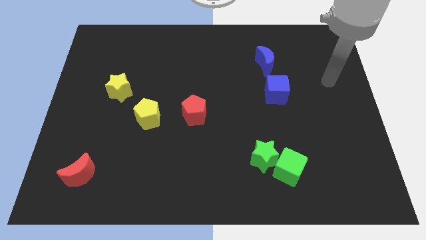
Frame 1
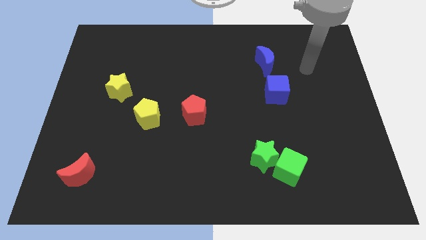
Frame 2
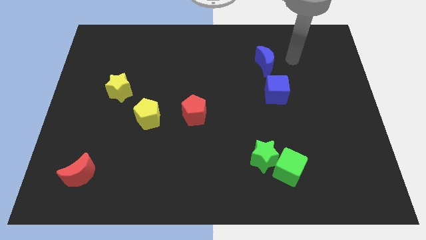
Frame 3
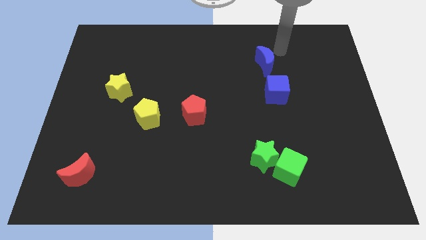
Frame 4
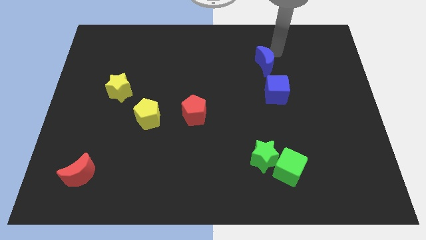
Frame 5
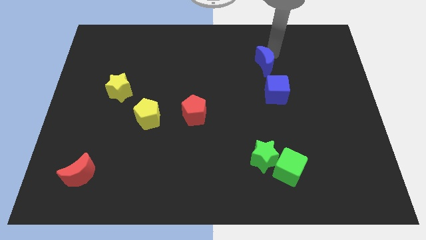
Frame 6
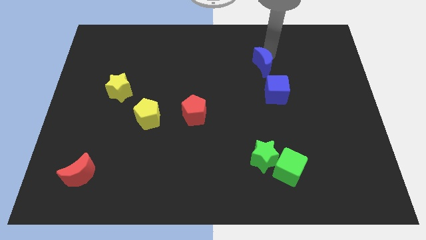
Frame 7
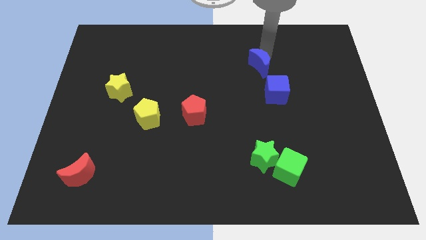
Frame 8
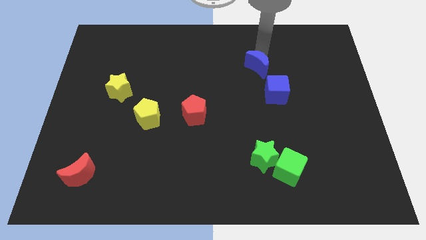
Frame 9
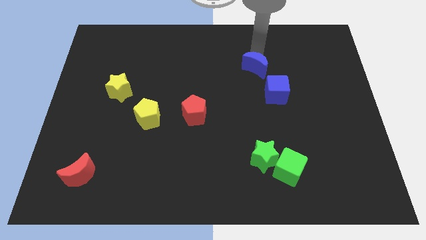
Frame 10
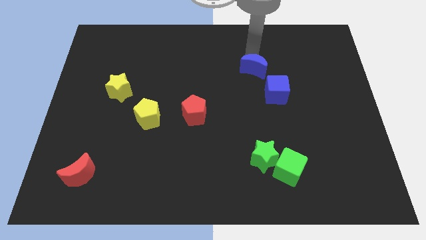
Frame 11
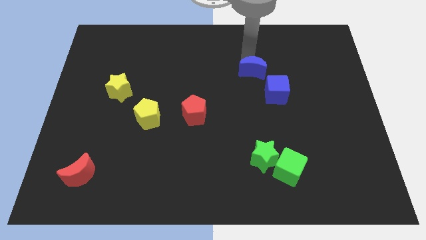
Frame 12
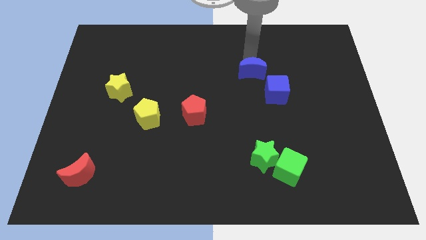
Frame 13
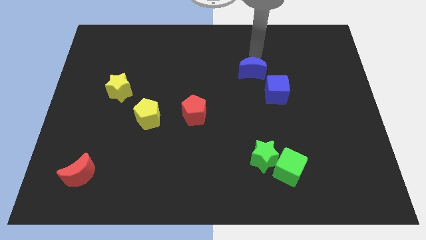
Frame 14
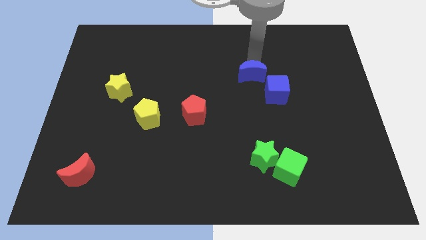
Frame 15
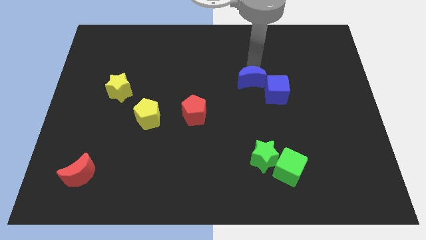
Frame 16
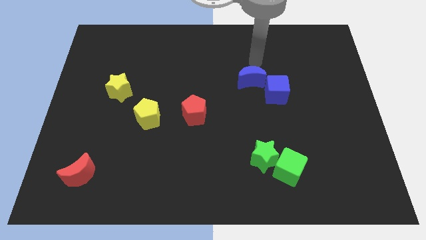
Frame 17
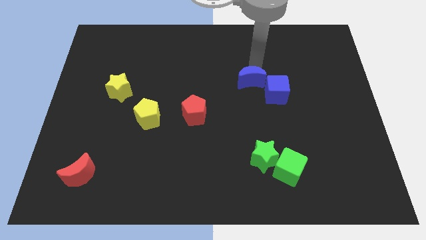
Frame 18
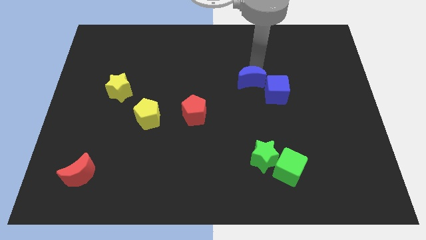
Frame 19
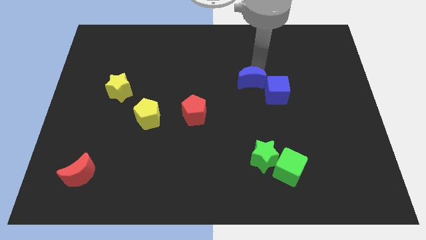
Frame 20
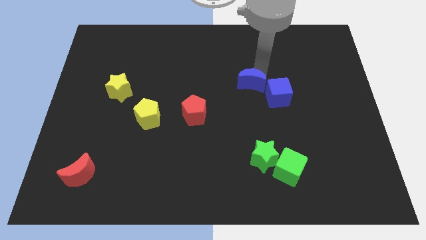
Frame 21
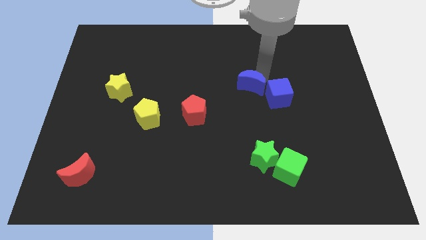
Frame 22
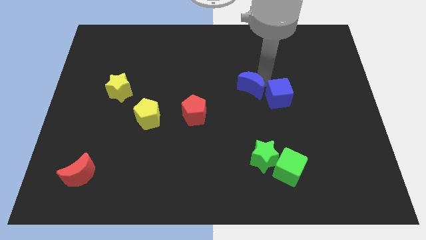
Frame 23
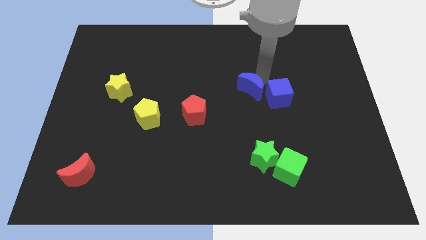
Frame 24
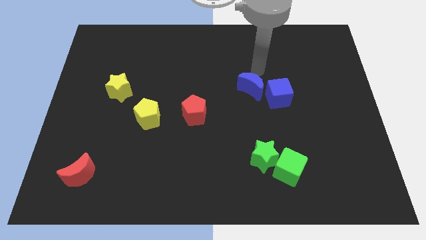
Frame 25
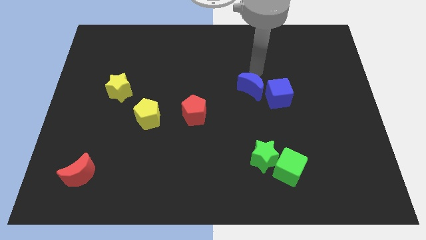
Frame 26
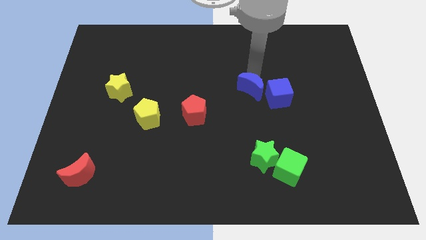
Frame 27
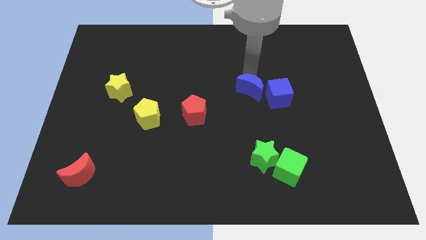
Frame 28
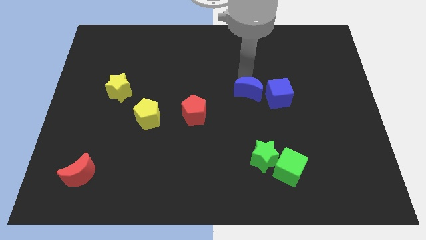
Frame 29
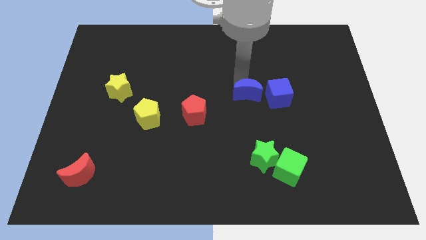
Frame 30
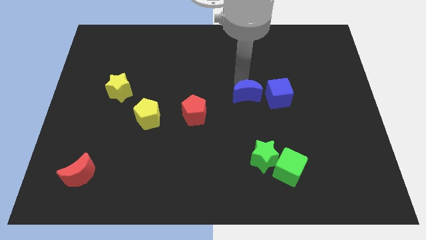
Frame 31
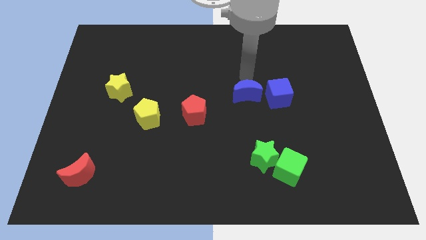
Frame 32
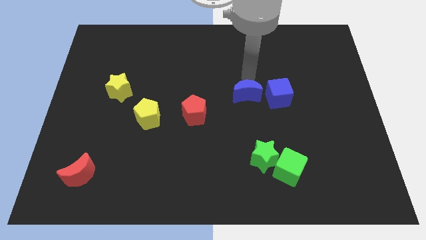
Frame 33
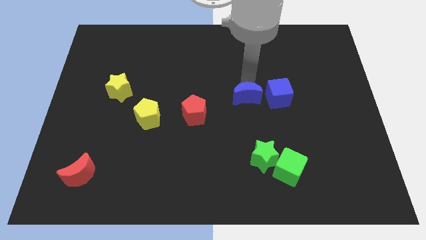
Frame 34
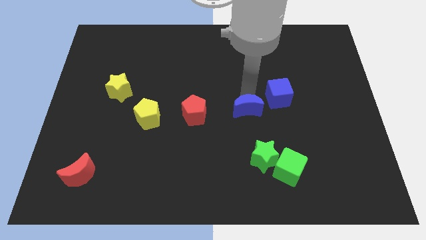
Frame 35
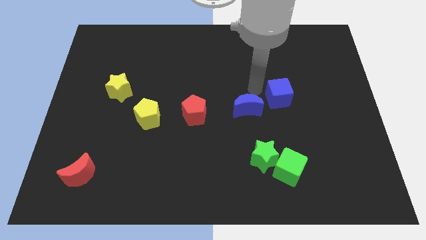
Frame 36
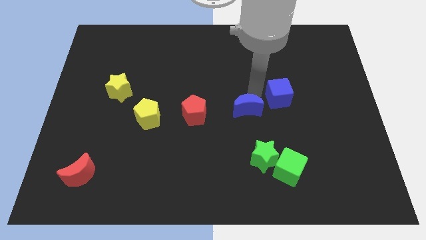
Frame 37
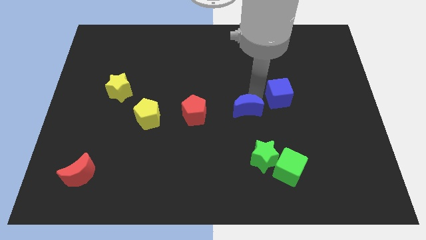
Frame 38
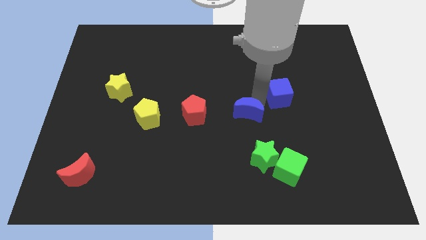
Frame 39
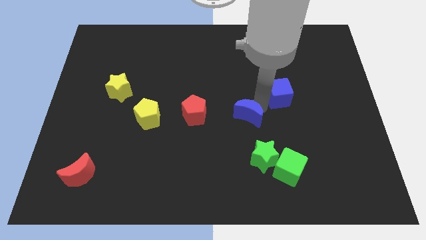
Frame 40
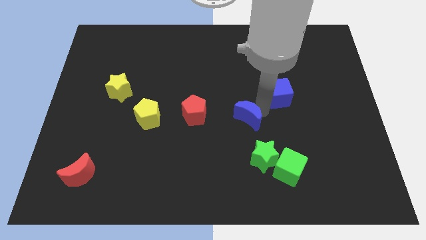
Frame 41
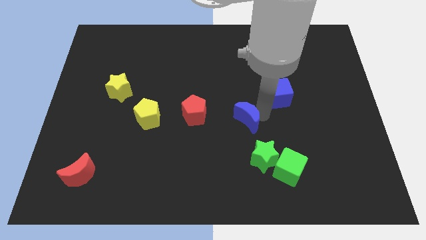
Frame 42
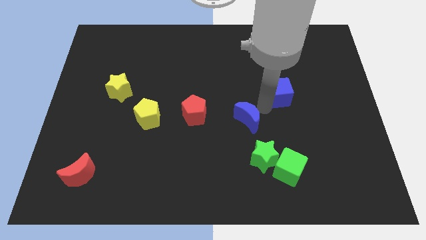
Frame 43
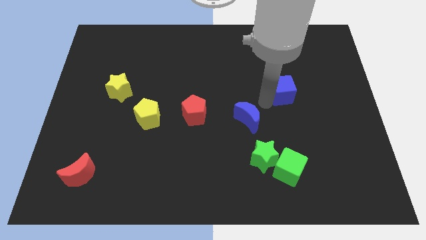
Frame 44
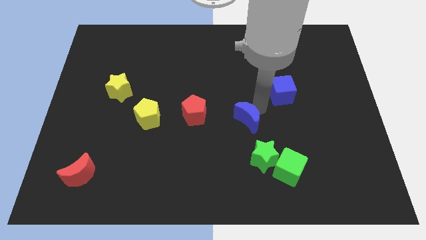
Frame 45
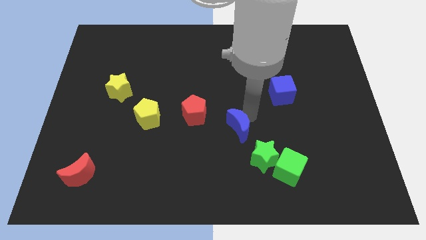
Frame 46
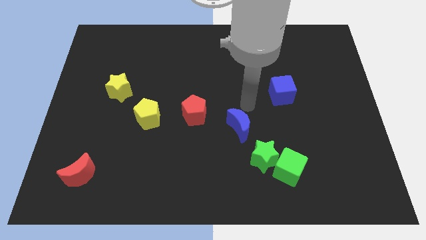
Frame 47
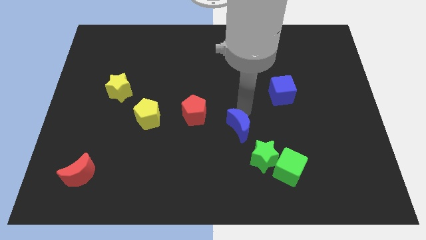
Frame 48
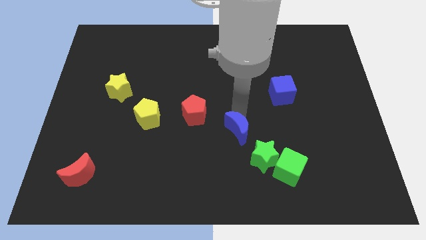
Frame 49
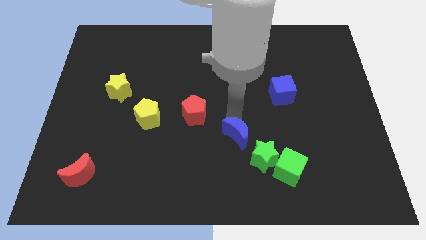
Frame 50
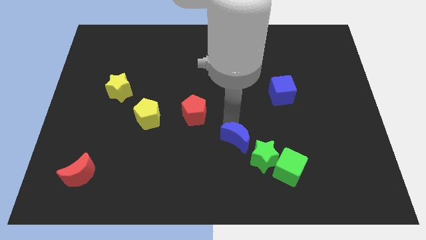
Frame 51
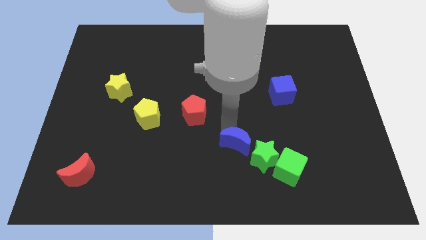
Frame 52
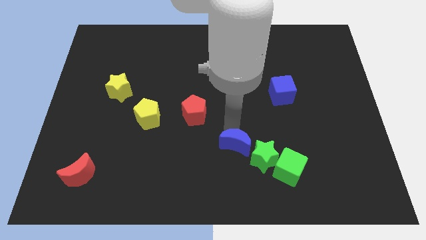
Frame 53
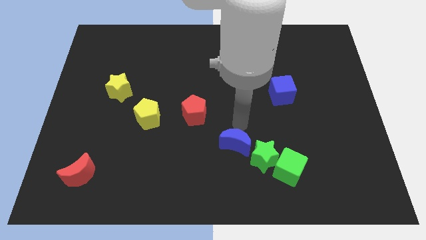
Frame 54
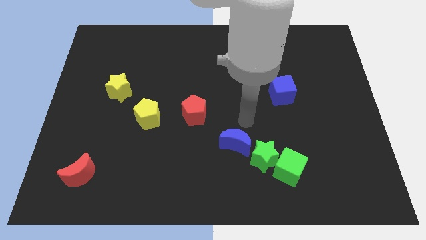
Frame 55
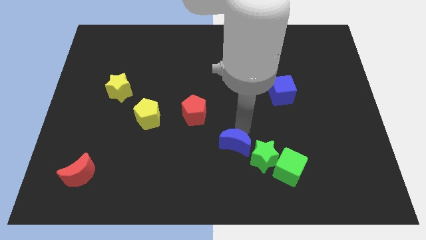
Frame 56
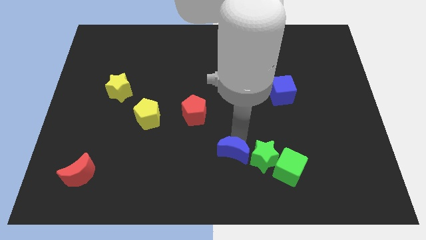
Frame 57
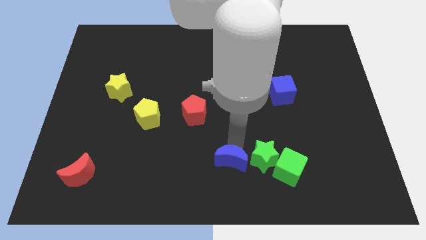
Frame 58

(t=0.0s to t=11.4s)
slide the blue moon to the bottom side

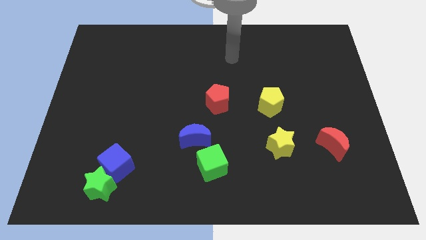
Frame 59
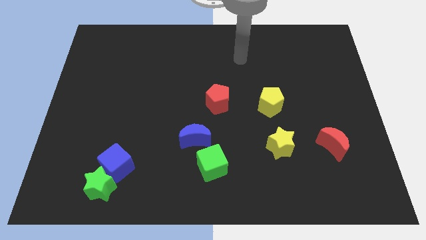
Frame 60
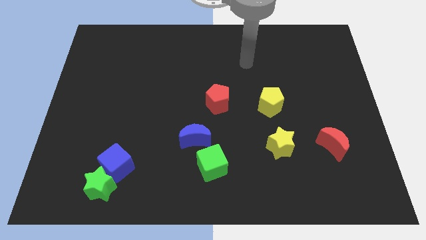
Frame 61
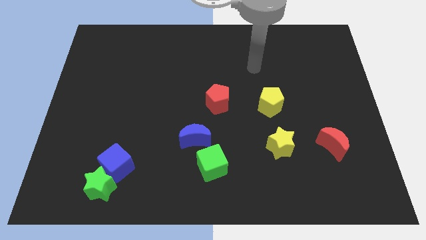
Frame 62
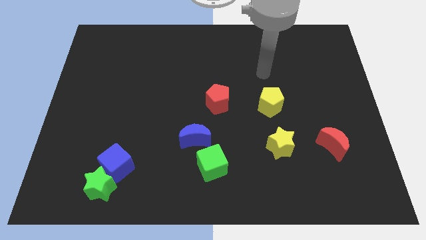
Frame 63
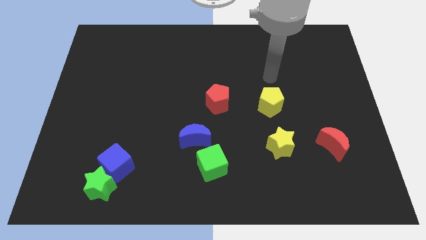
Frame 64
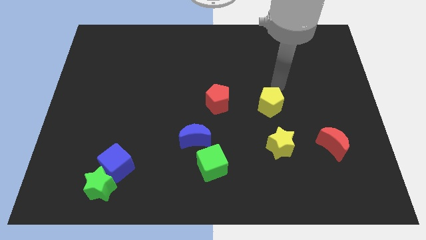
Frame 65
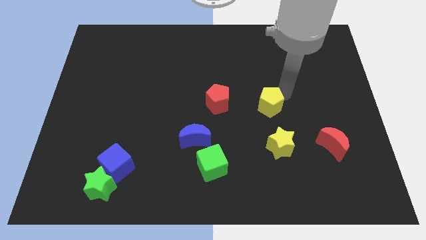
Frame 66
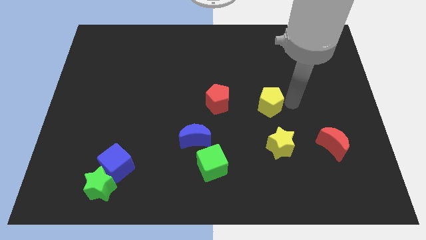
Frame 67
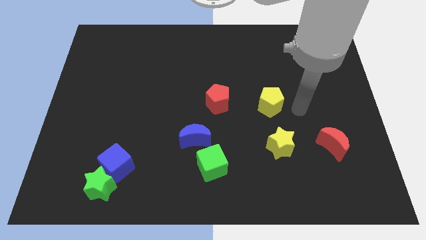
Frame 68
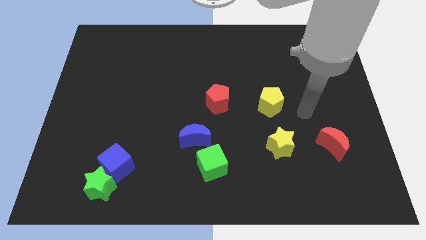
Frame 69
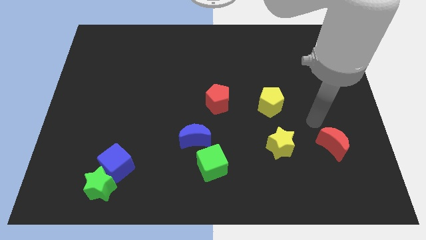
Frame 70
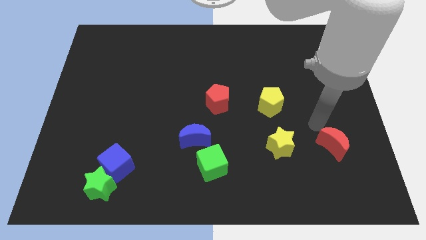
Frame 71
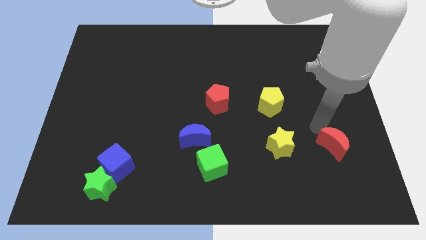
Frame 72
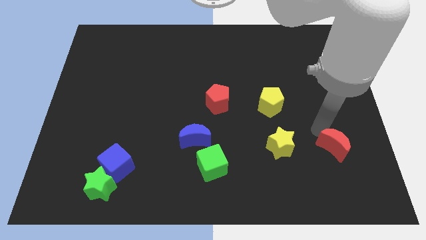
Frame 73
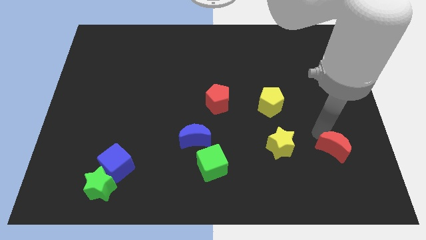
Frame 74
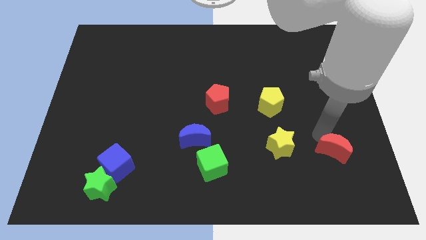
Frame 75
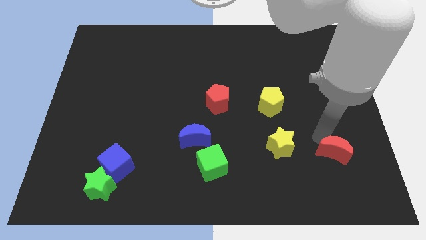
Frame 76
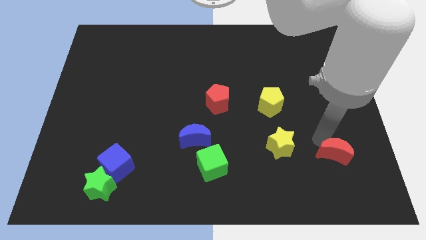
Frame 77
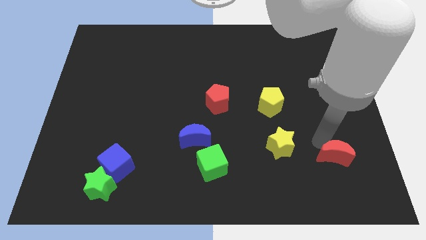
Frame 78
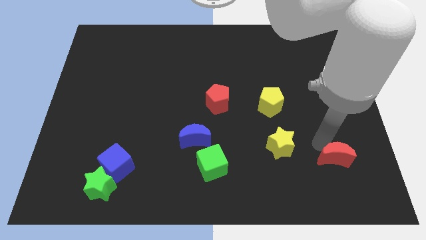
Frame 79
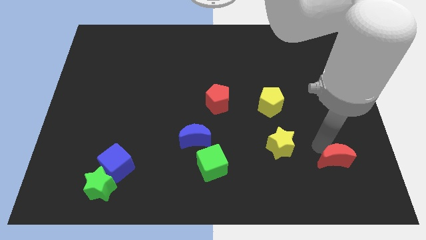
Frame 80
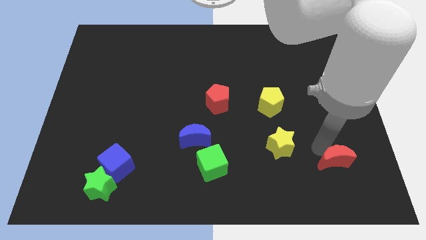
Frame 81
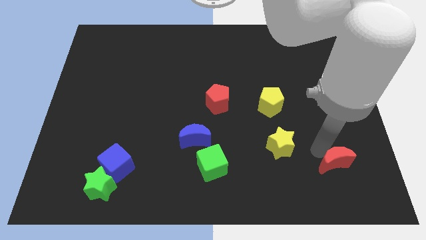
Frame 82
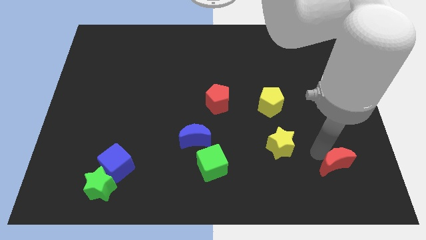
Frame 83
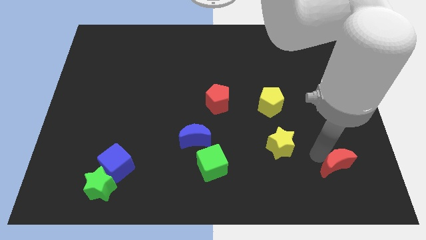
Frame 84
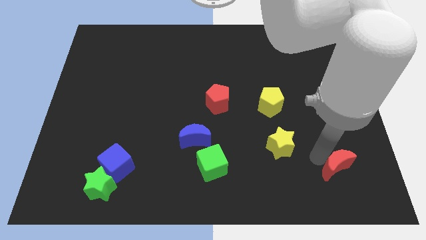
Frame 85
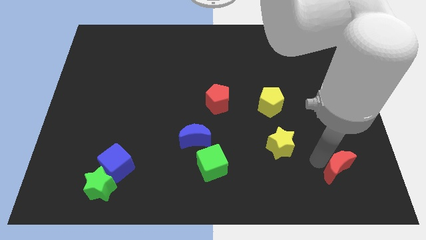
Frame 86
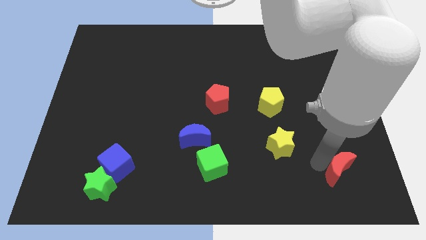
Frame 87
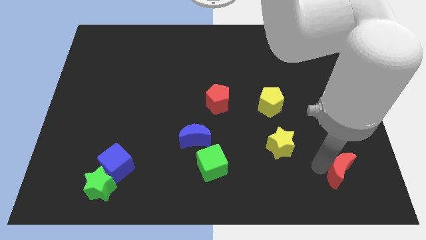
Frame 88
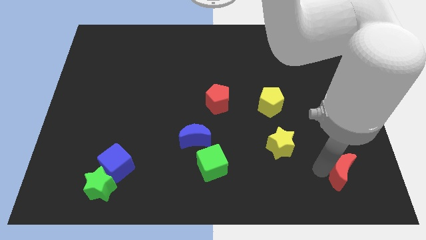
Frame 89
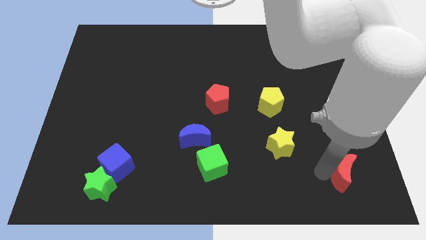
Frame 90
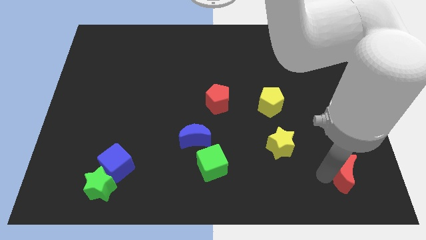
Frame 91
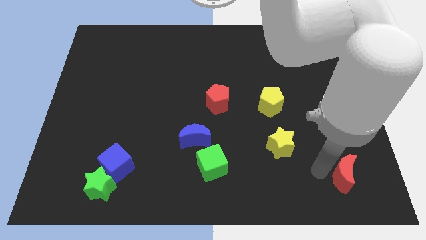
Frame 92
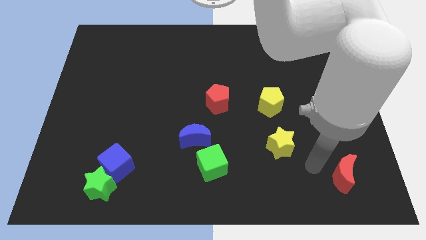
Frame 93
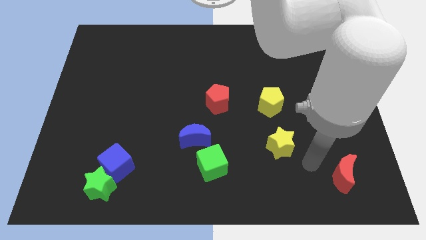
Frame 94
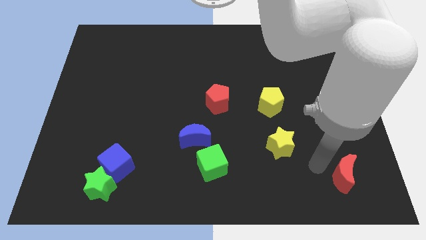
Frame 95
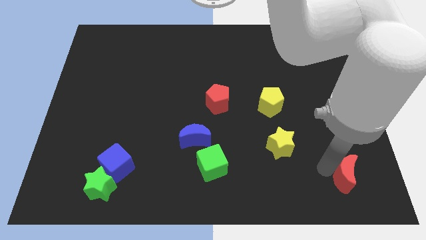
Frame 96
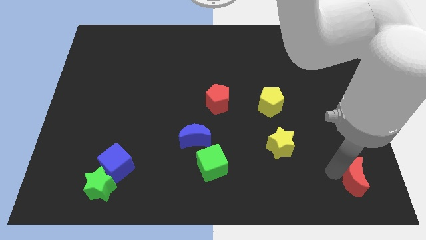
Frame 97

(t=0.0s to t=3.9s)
move the red moon to the lower right corner
